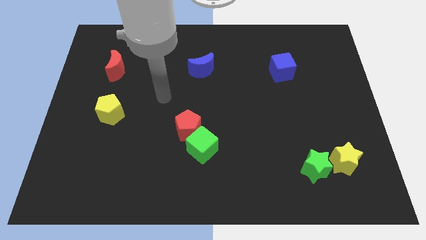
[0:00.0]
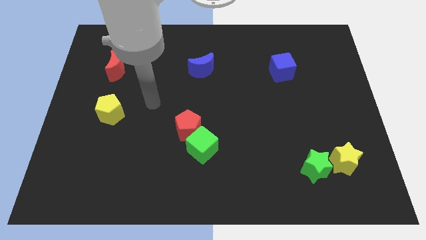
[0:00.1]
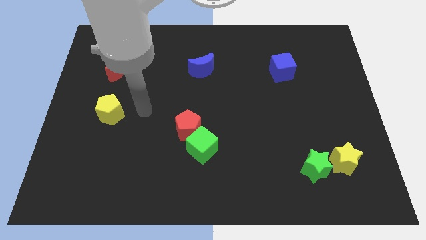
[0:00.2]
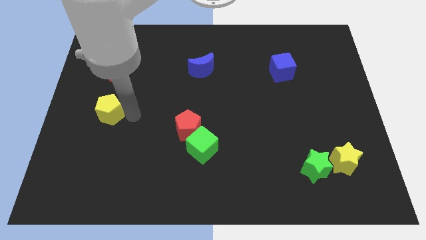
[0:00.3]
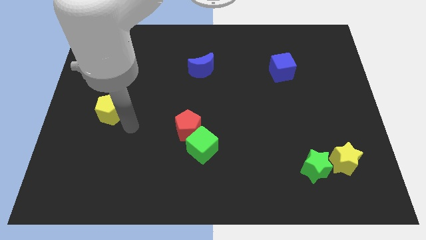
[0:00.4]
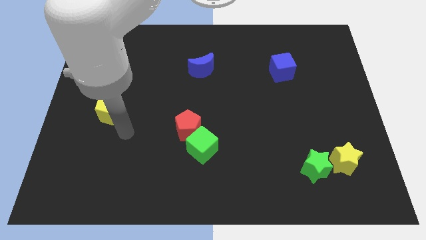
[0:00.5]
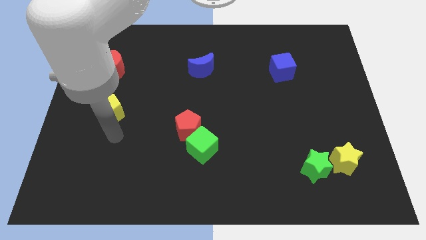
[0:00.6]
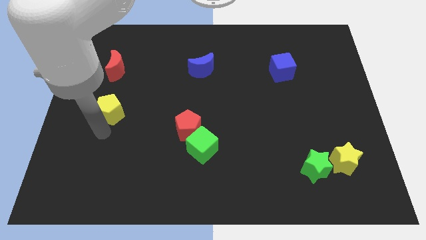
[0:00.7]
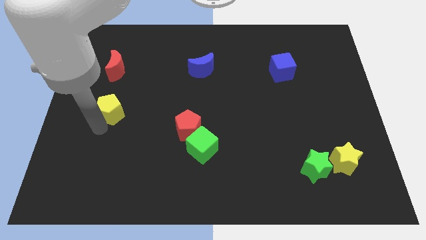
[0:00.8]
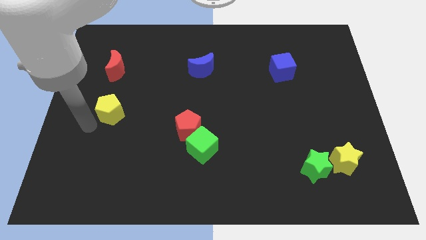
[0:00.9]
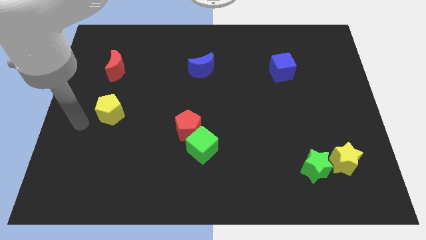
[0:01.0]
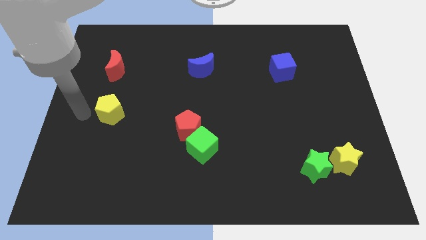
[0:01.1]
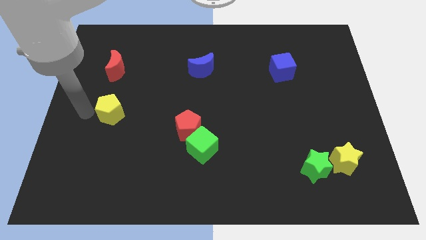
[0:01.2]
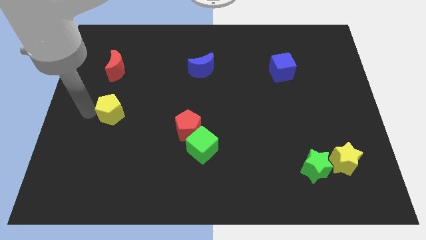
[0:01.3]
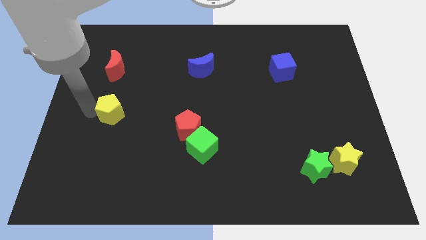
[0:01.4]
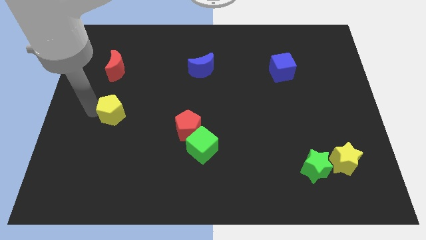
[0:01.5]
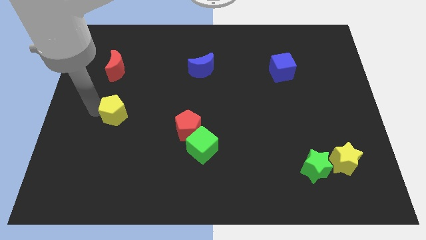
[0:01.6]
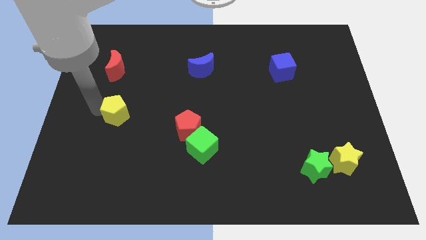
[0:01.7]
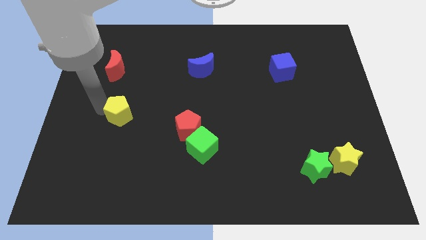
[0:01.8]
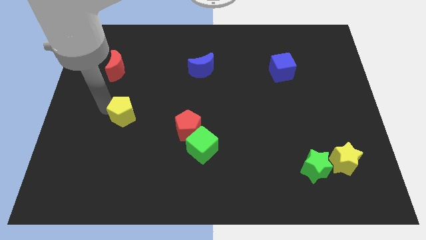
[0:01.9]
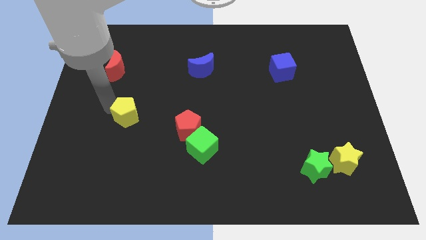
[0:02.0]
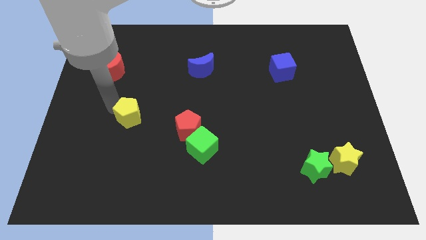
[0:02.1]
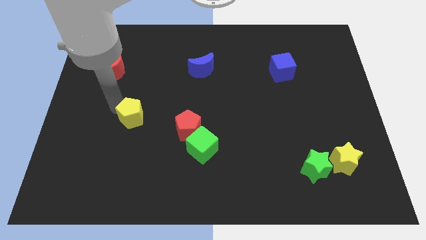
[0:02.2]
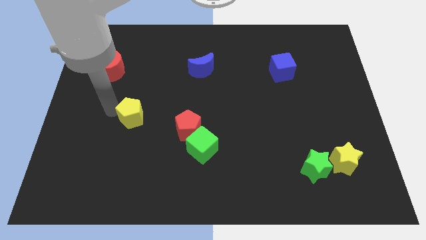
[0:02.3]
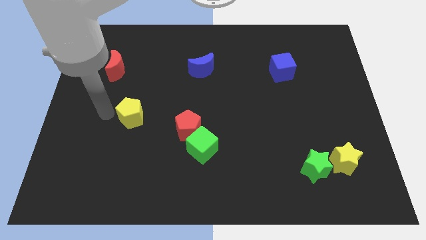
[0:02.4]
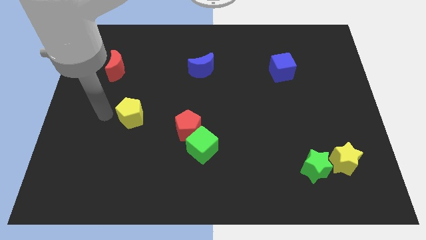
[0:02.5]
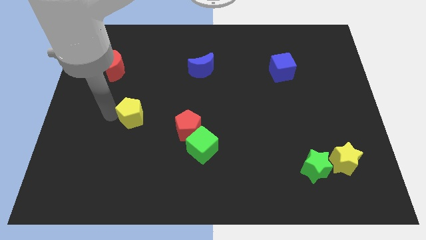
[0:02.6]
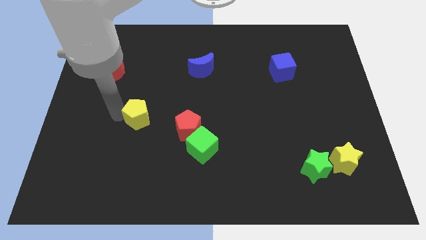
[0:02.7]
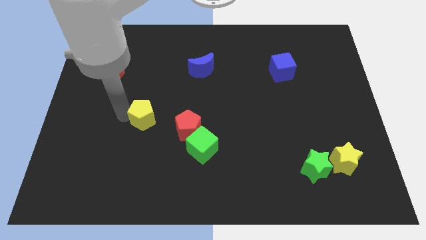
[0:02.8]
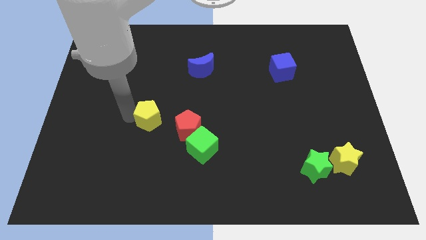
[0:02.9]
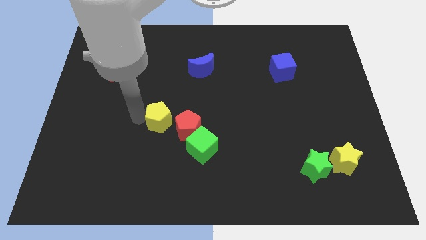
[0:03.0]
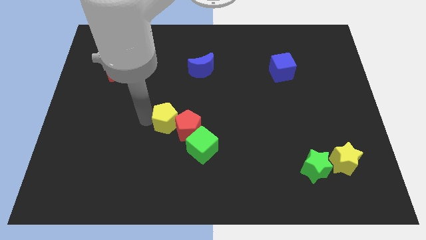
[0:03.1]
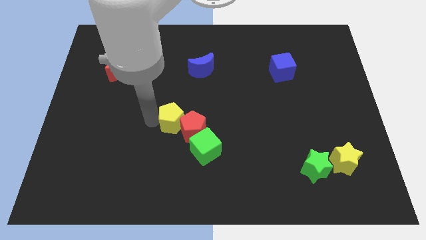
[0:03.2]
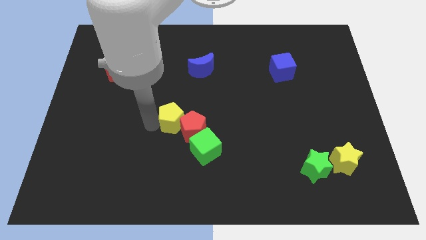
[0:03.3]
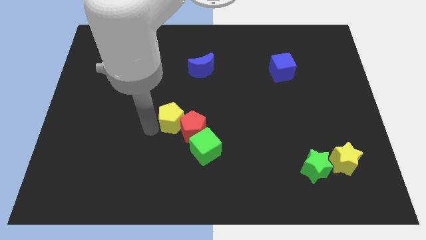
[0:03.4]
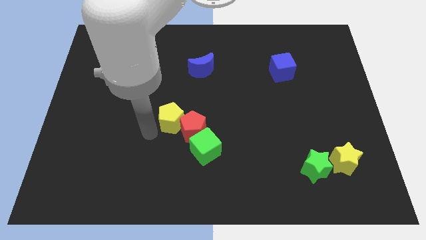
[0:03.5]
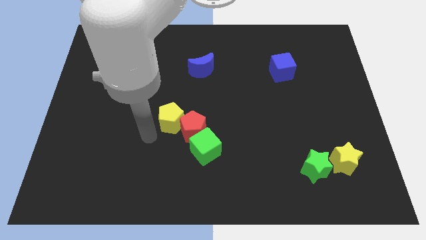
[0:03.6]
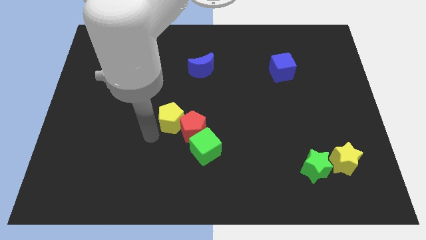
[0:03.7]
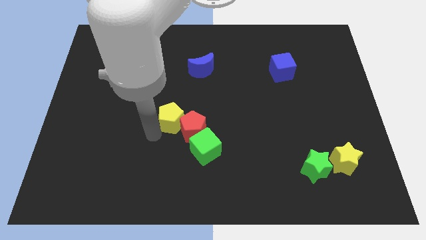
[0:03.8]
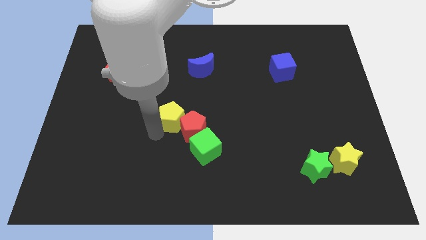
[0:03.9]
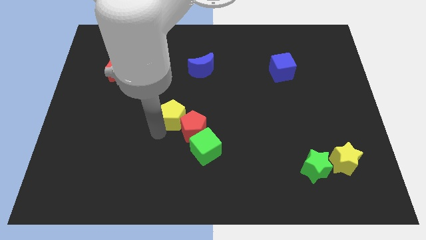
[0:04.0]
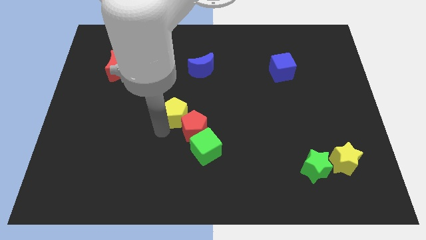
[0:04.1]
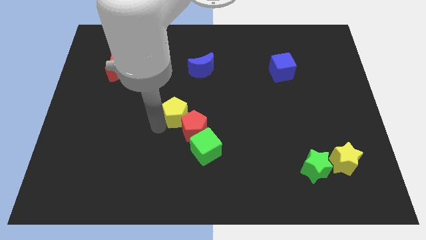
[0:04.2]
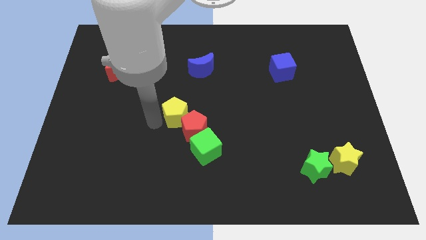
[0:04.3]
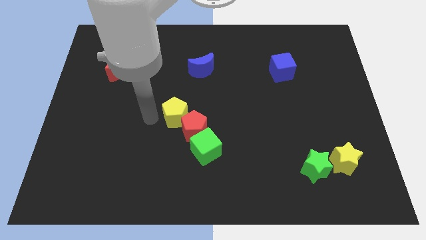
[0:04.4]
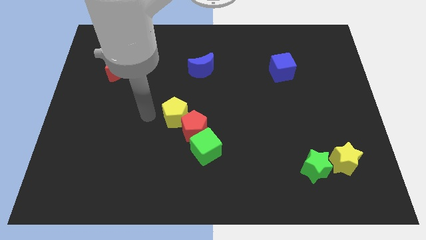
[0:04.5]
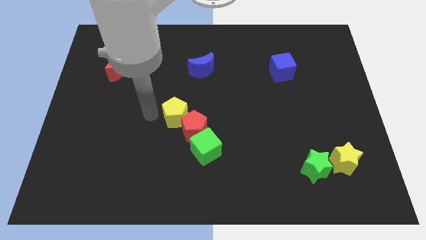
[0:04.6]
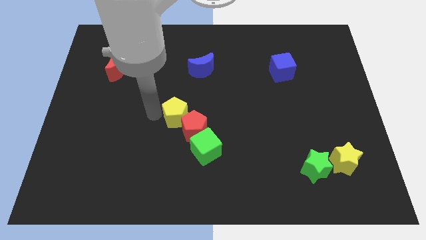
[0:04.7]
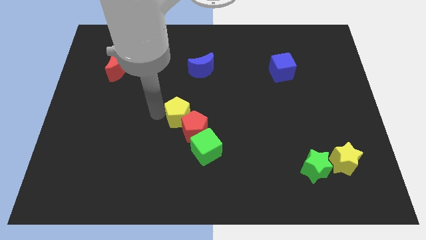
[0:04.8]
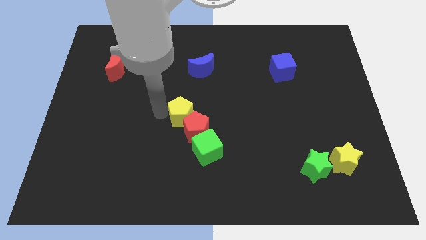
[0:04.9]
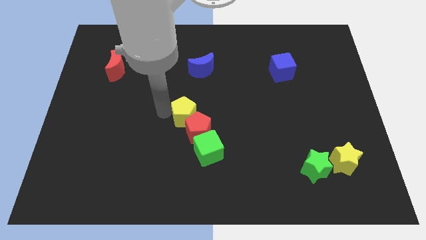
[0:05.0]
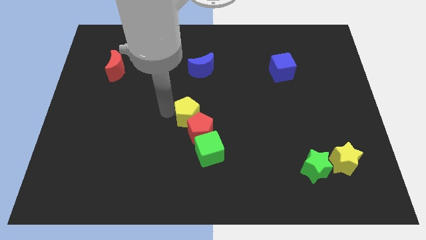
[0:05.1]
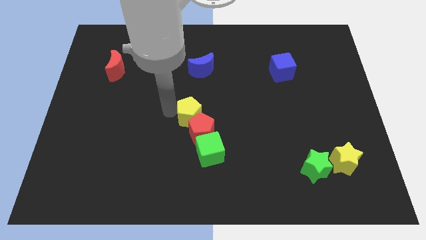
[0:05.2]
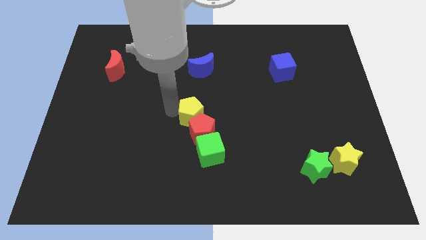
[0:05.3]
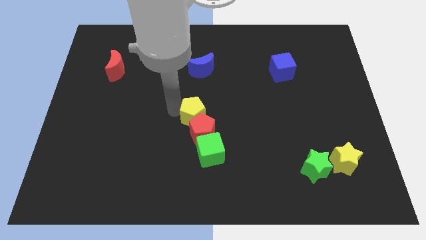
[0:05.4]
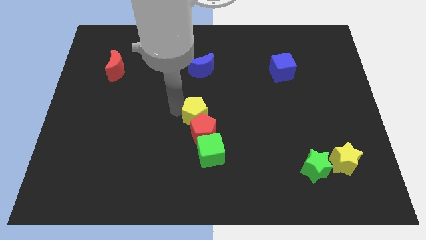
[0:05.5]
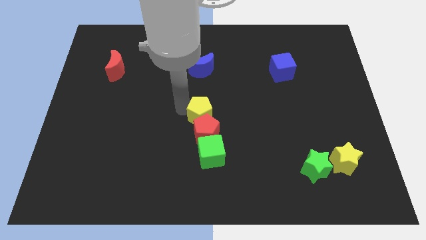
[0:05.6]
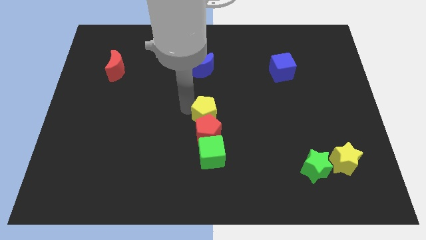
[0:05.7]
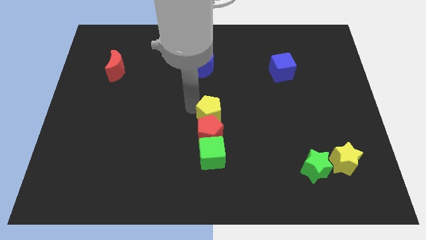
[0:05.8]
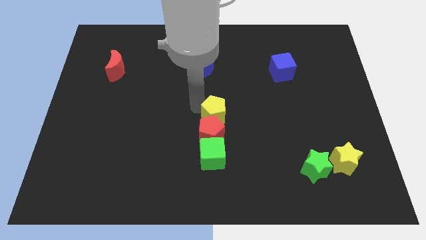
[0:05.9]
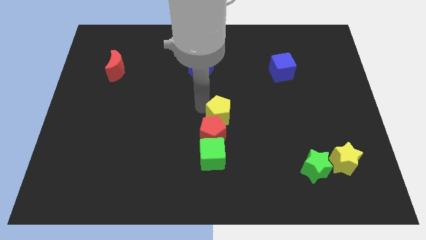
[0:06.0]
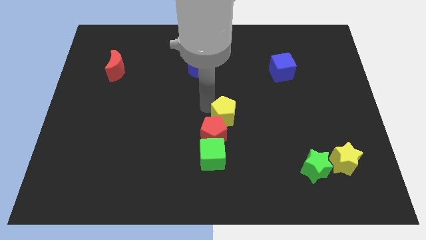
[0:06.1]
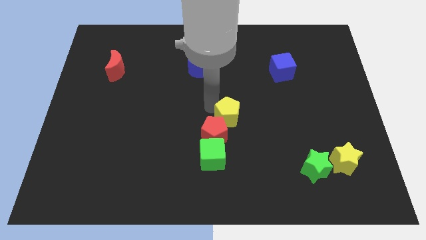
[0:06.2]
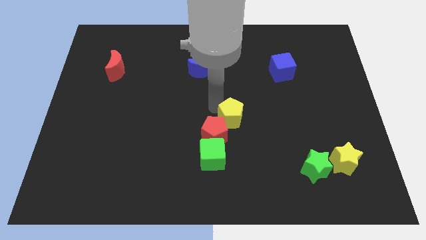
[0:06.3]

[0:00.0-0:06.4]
push the yellow pentagon just right of the red pentagon

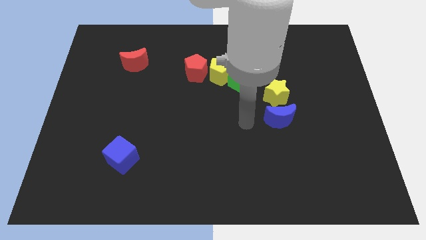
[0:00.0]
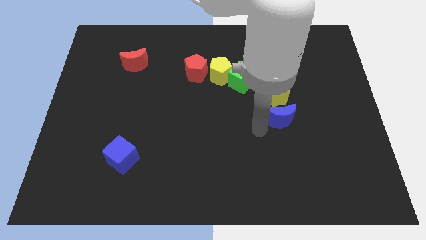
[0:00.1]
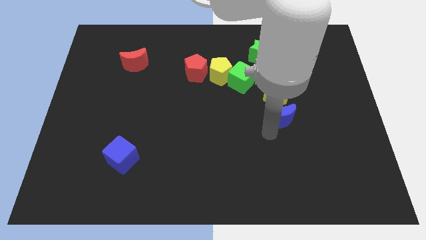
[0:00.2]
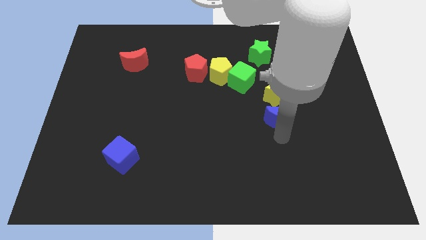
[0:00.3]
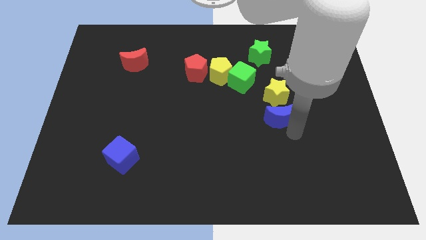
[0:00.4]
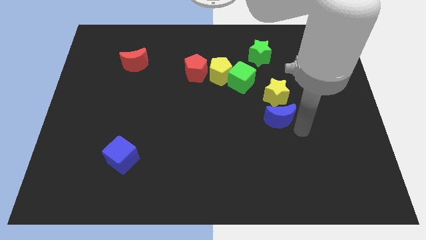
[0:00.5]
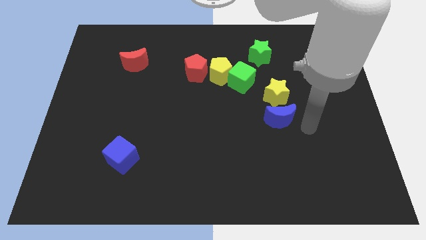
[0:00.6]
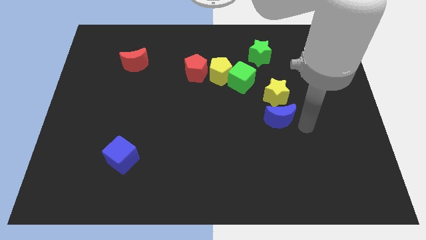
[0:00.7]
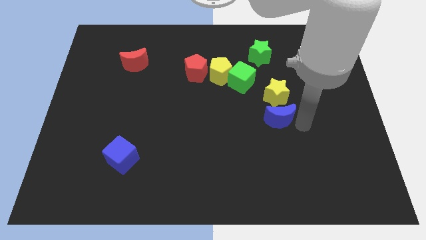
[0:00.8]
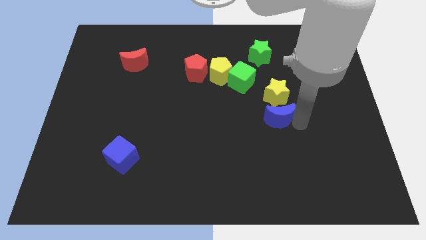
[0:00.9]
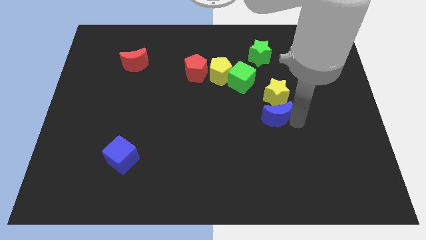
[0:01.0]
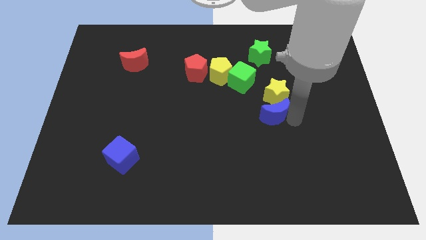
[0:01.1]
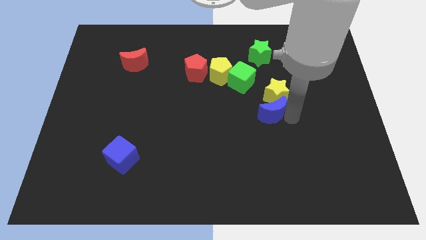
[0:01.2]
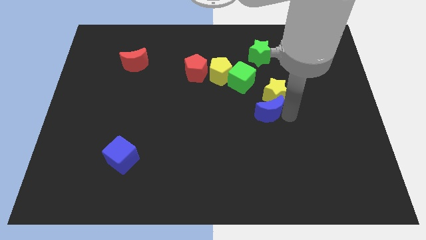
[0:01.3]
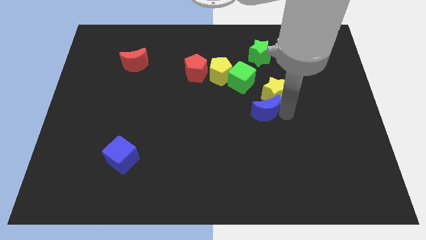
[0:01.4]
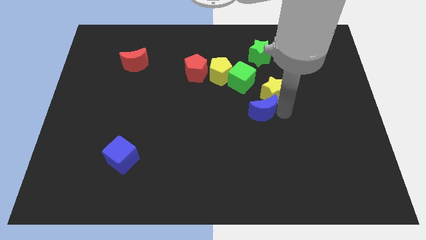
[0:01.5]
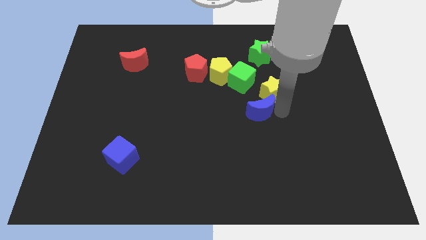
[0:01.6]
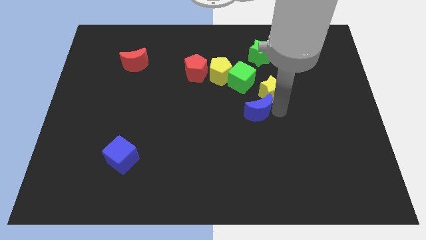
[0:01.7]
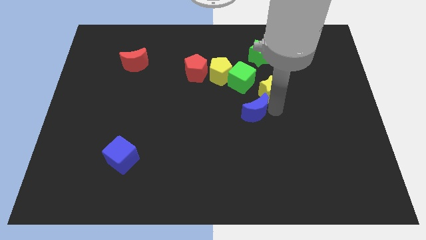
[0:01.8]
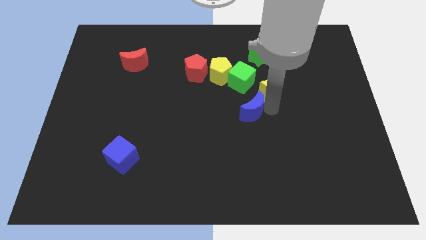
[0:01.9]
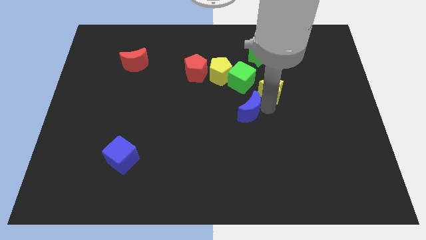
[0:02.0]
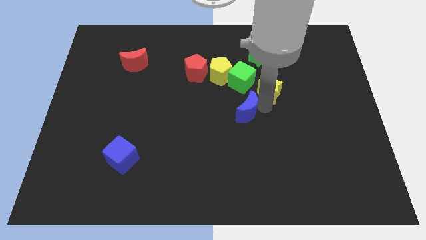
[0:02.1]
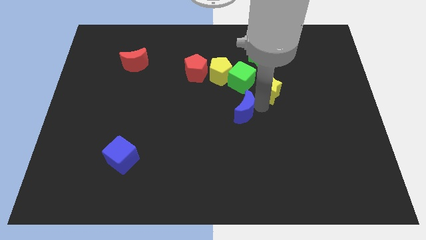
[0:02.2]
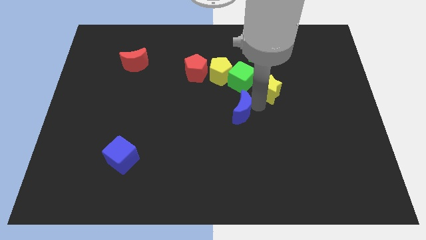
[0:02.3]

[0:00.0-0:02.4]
put the blue moon to the bottom of the yellow pentagon
